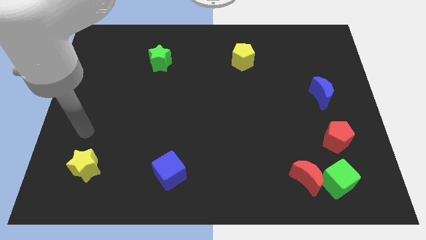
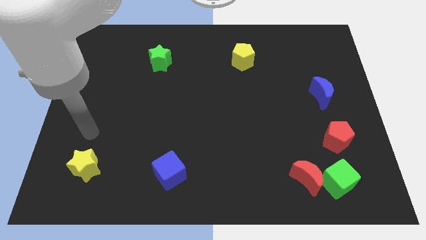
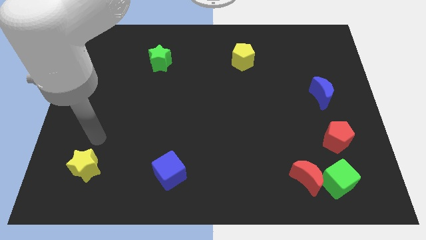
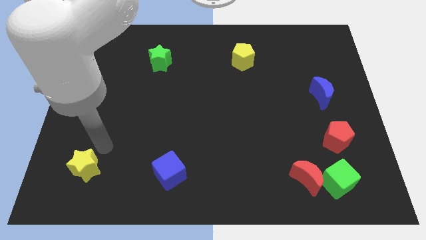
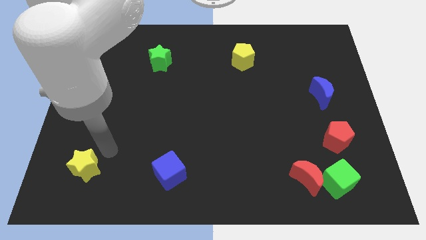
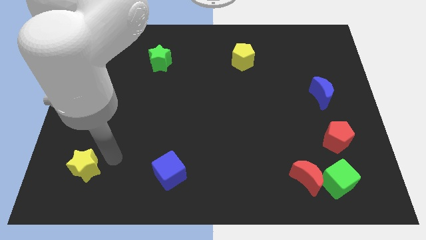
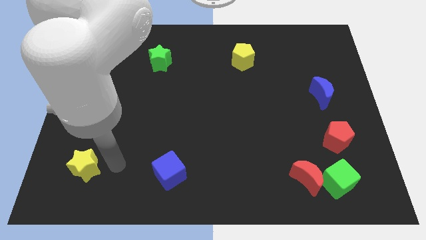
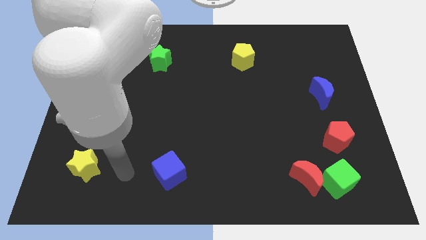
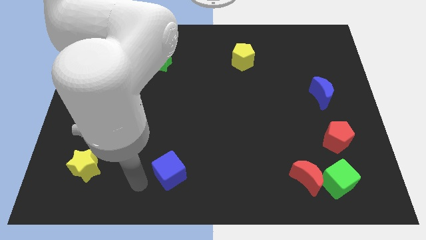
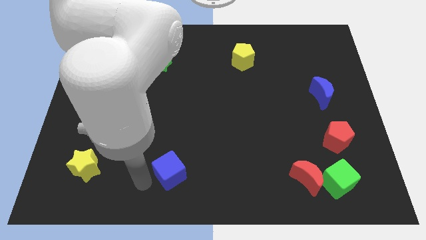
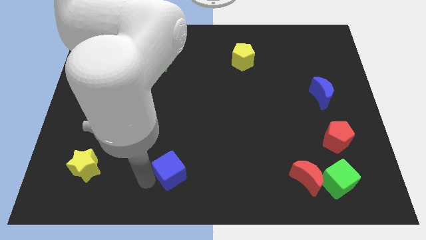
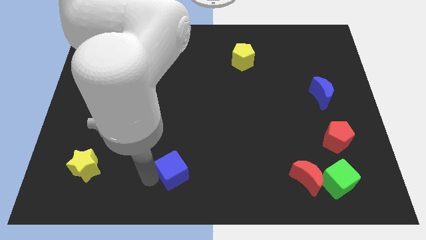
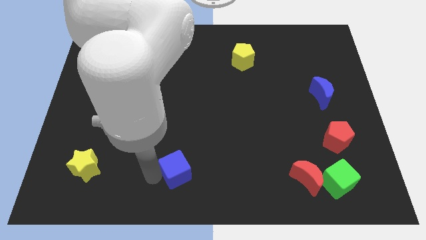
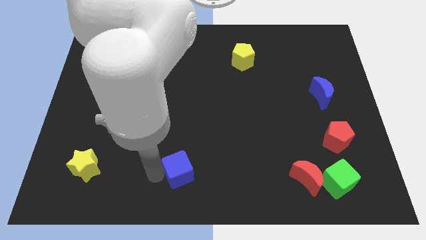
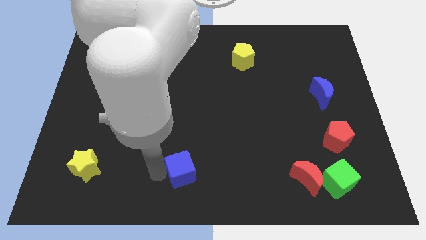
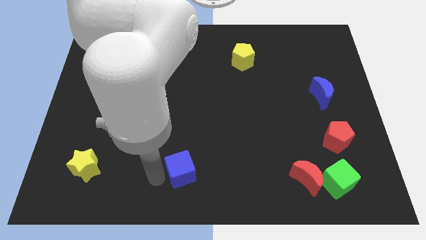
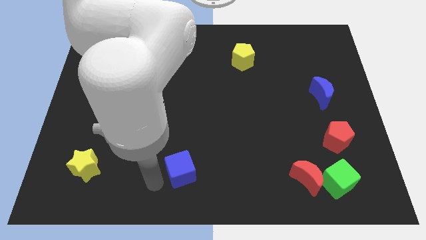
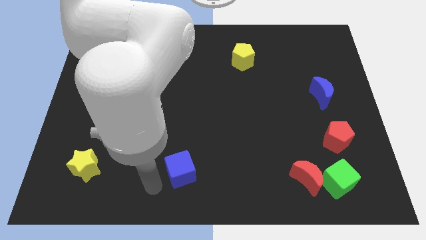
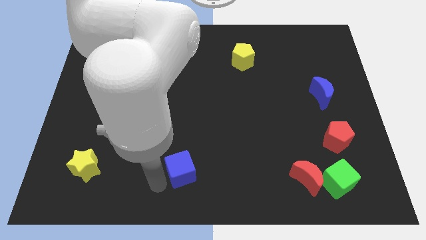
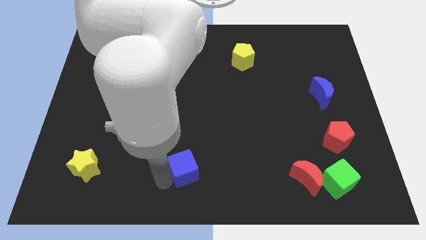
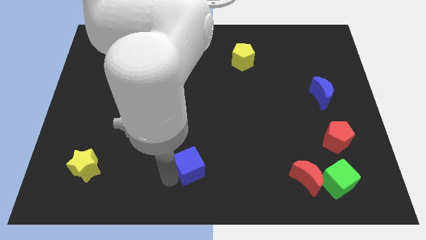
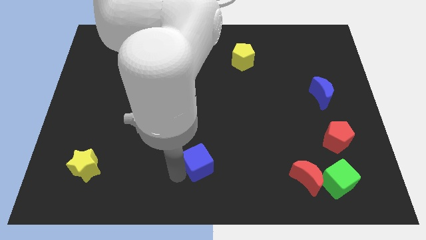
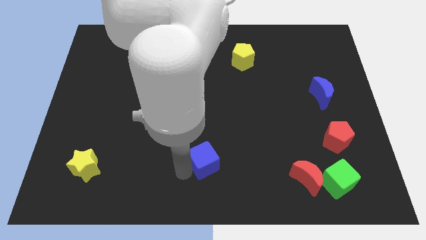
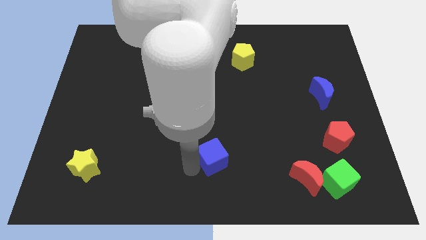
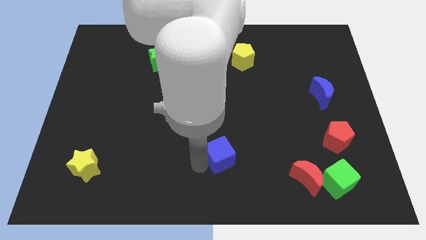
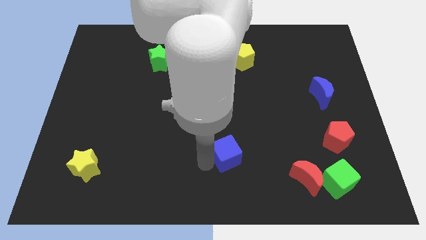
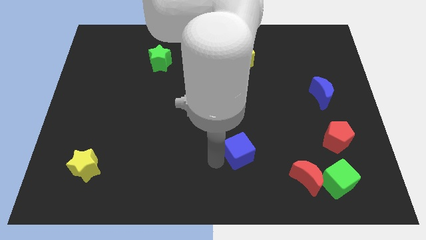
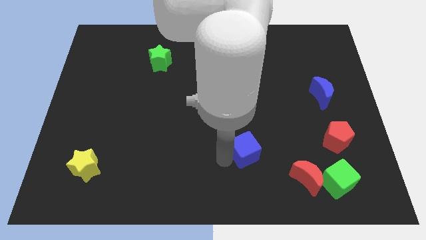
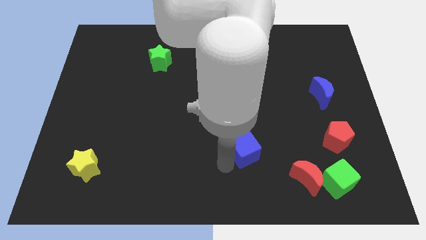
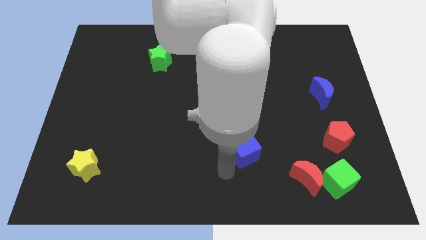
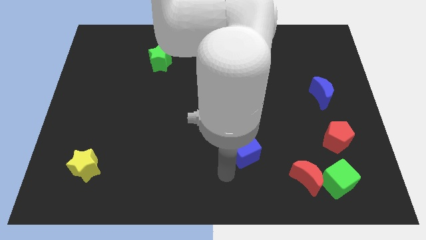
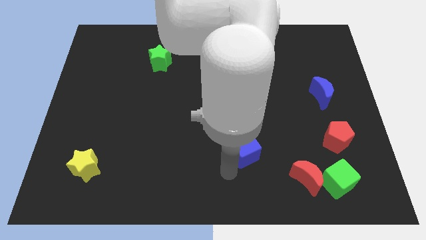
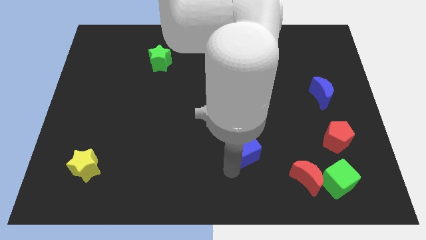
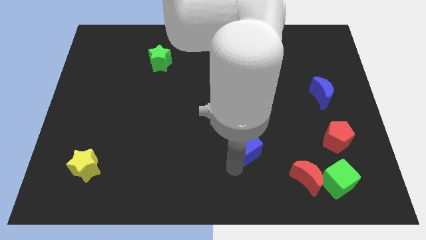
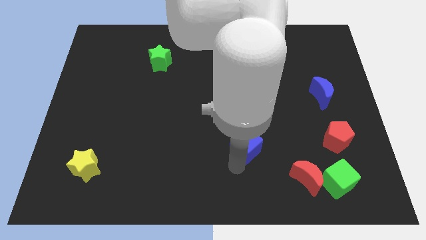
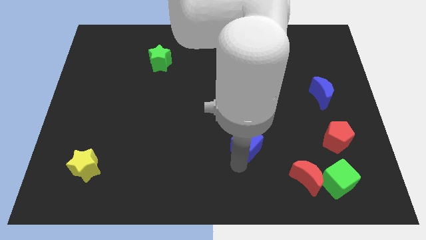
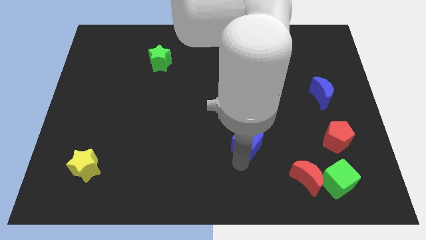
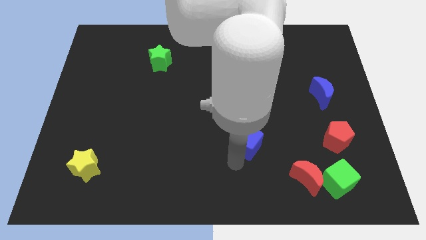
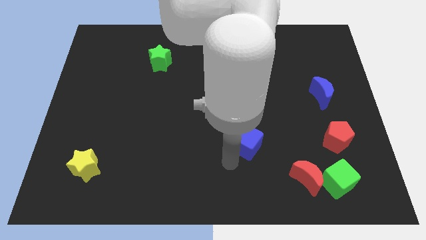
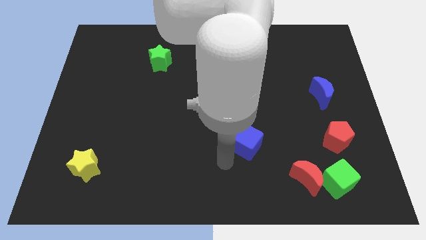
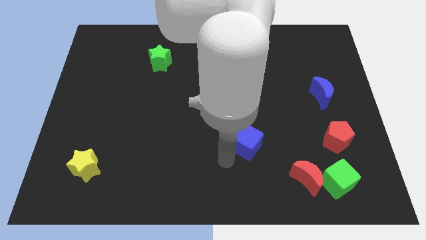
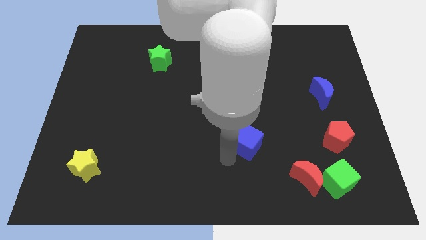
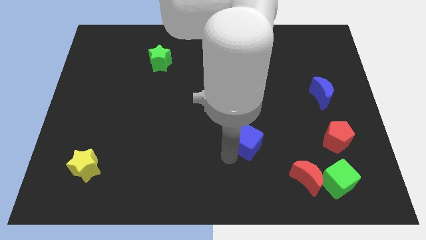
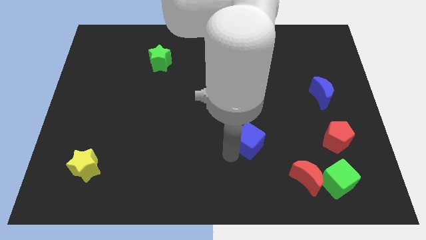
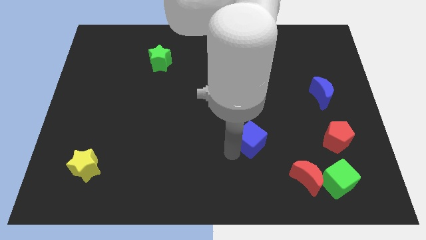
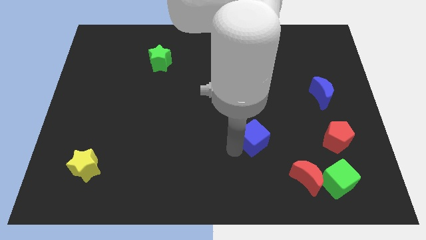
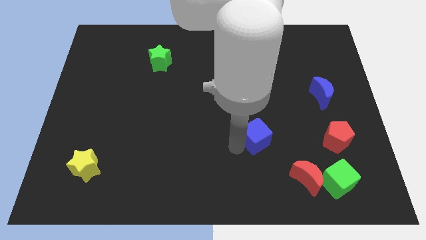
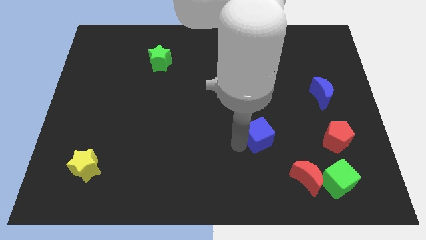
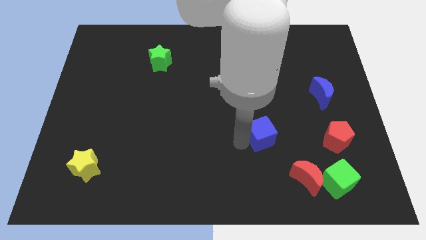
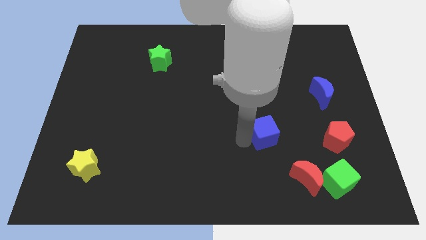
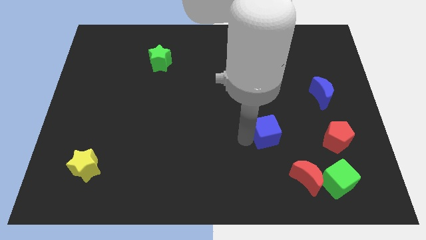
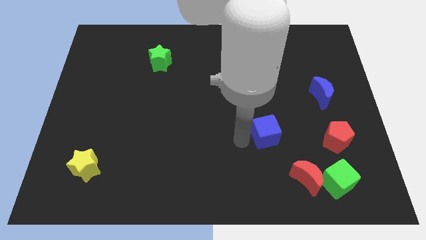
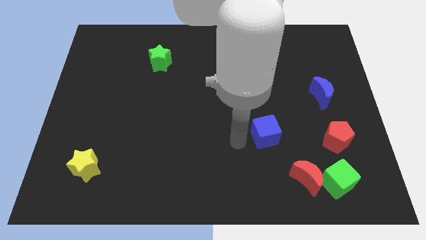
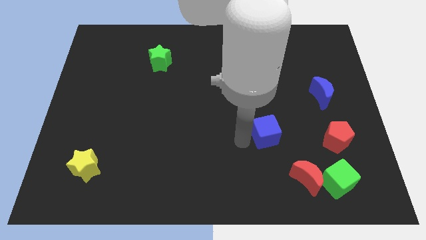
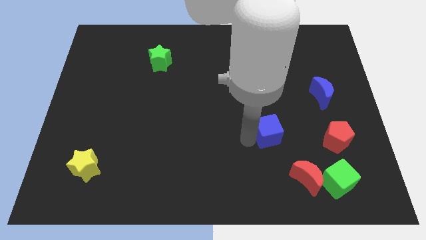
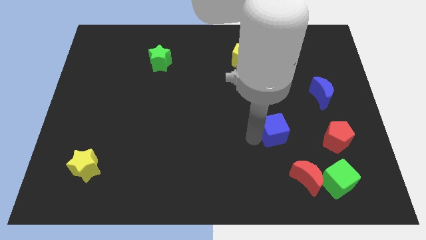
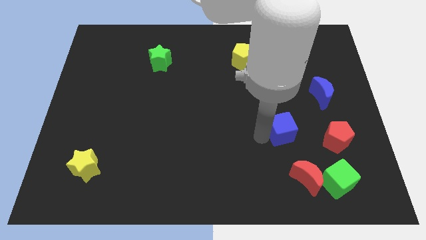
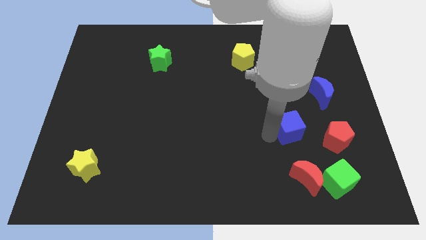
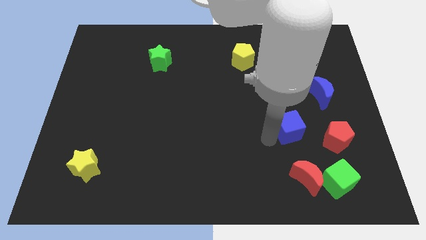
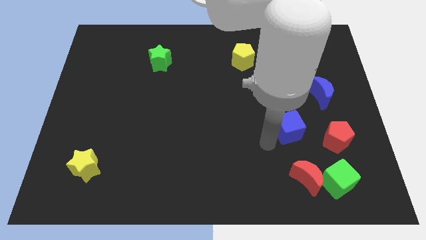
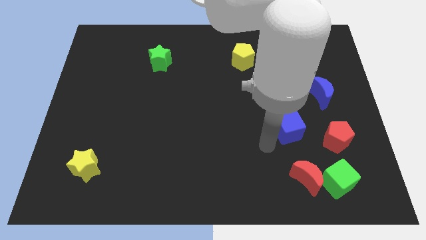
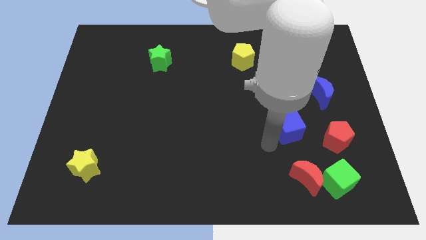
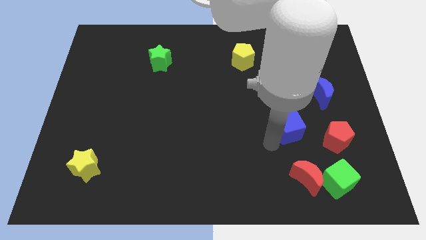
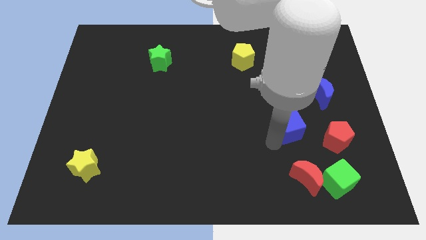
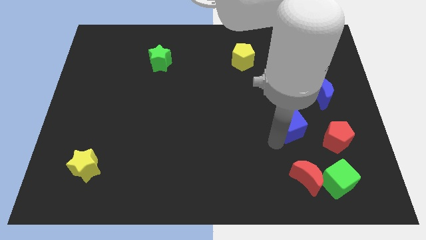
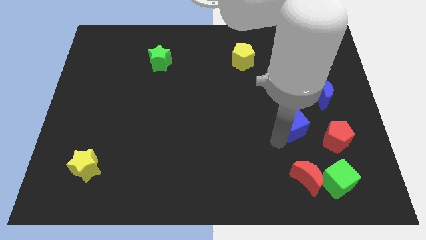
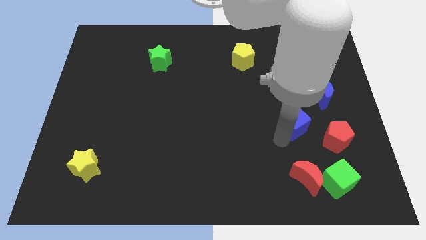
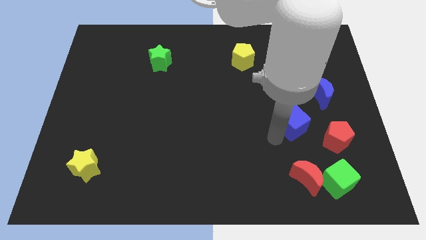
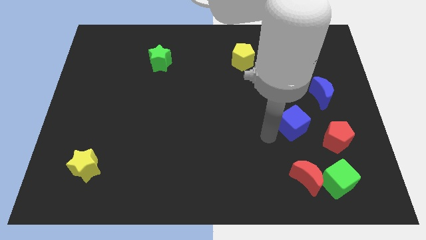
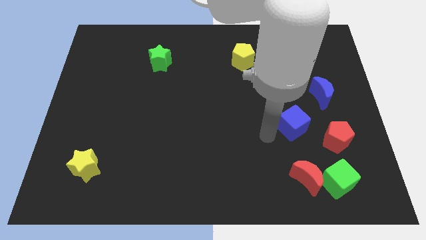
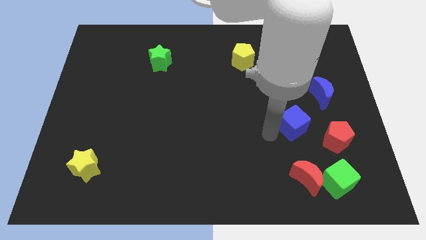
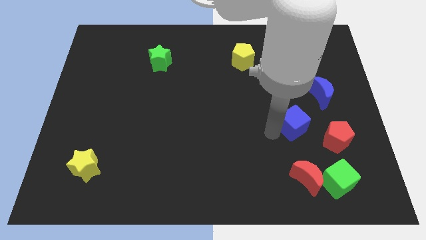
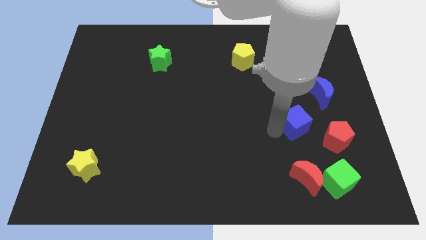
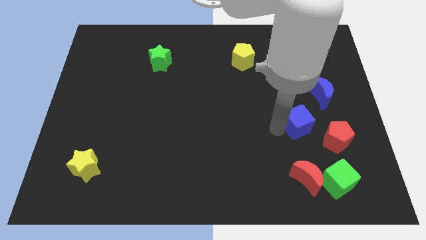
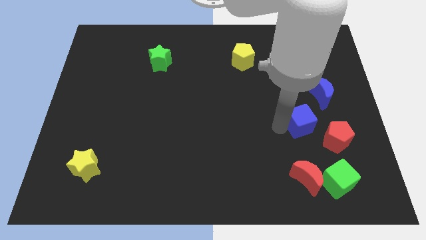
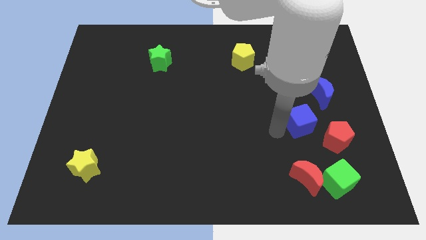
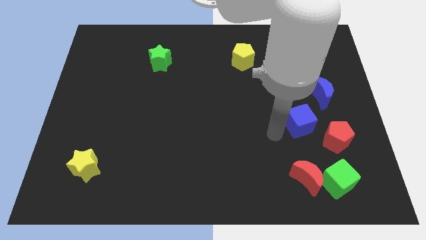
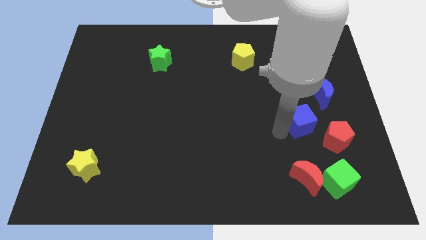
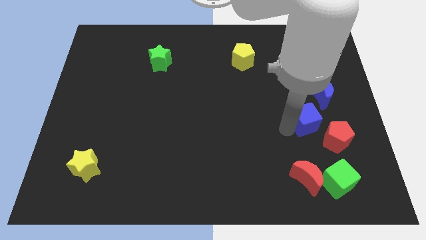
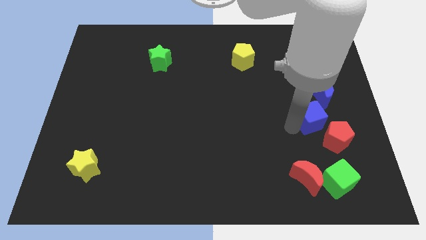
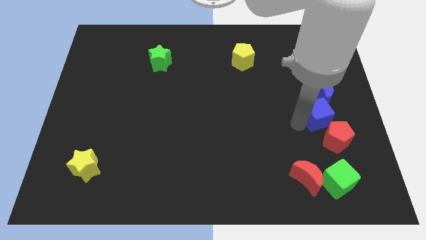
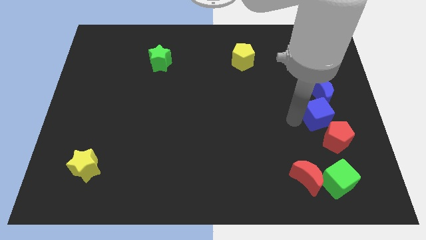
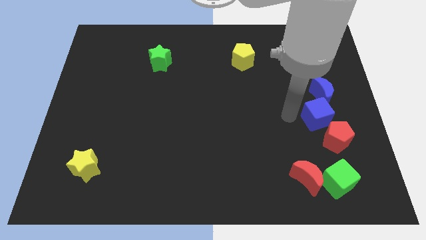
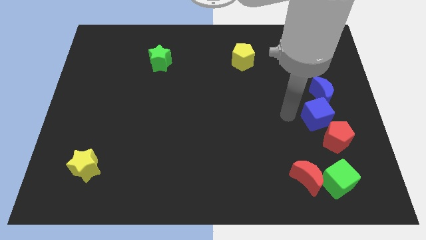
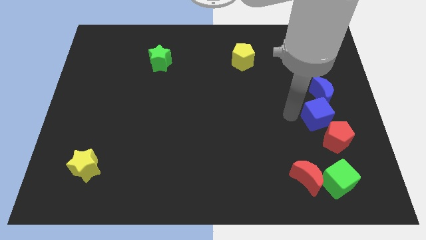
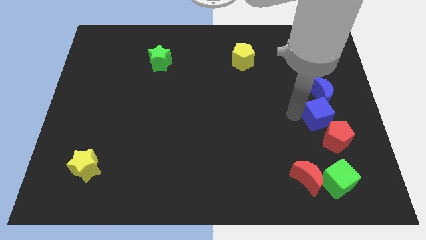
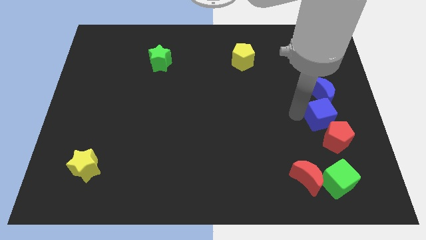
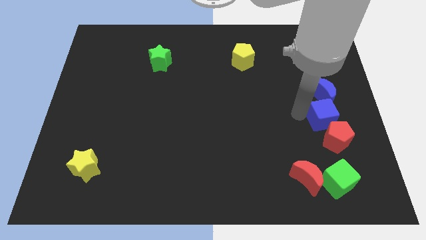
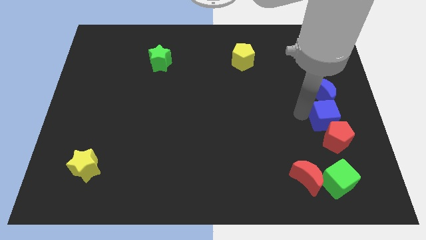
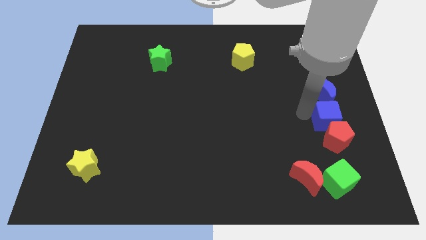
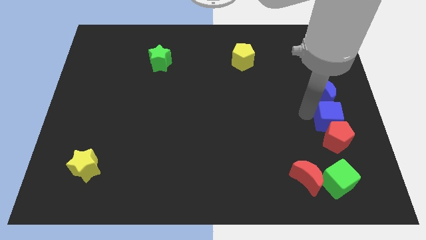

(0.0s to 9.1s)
push the blue cube to the center right
